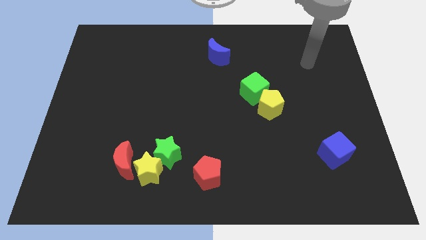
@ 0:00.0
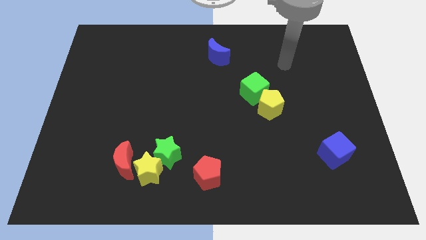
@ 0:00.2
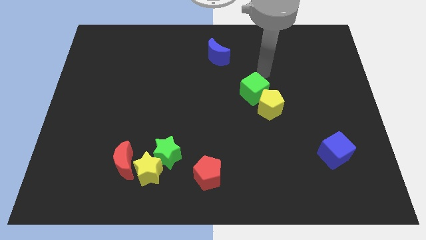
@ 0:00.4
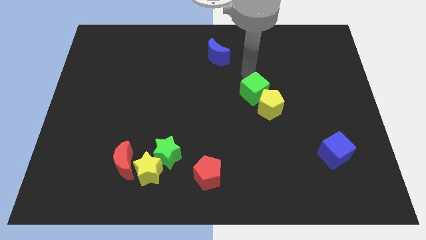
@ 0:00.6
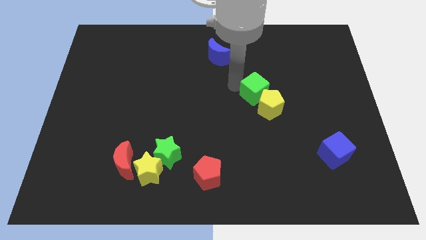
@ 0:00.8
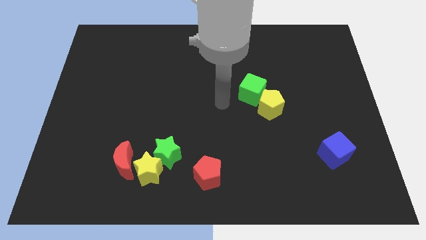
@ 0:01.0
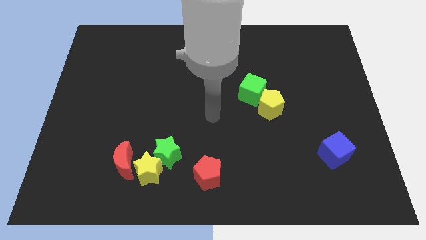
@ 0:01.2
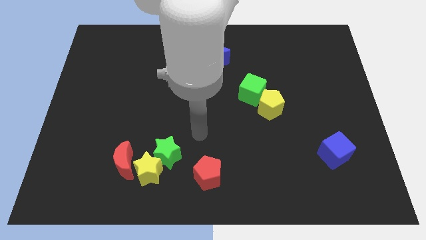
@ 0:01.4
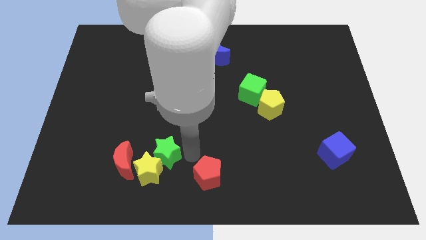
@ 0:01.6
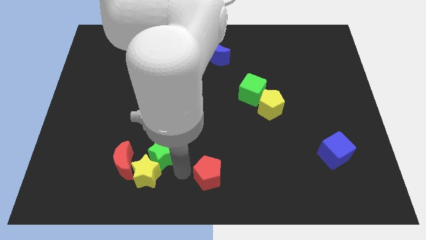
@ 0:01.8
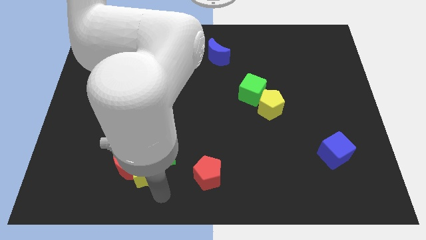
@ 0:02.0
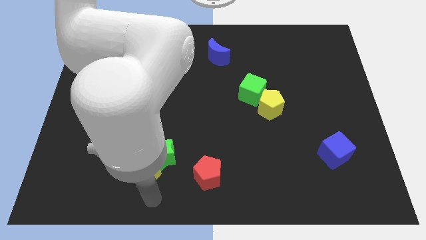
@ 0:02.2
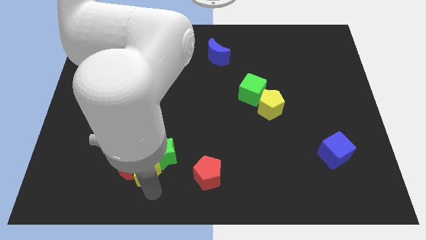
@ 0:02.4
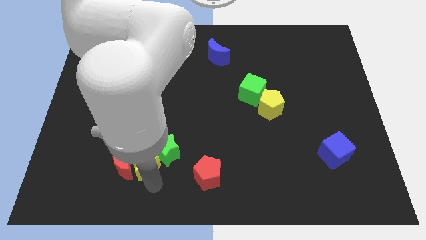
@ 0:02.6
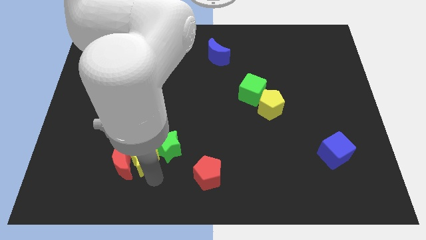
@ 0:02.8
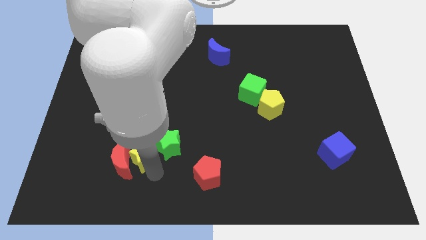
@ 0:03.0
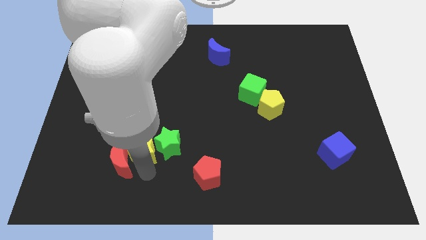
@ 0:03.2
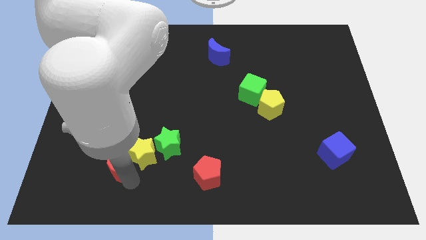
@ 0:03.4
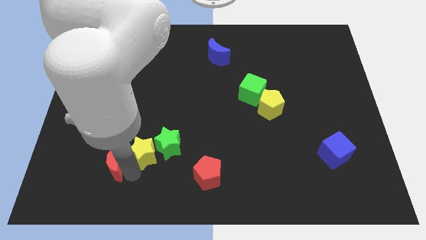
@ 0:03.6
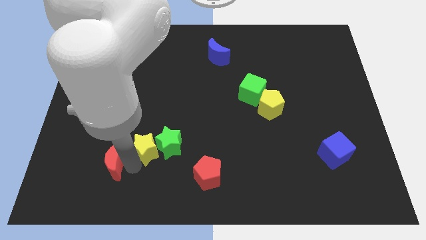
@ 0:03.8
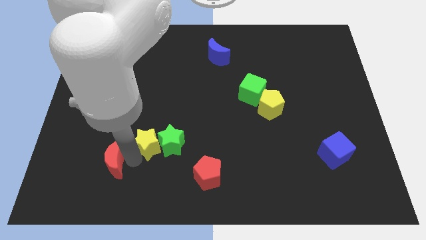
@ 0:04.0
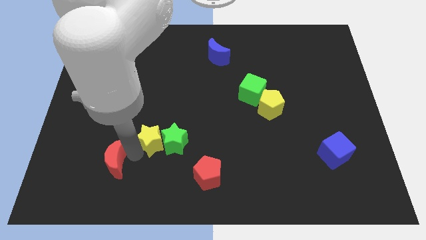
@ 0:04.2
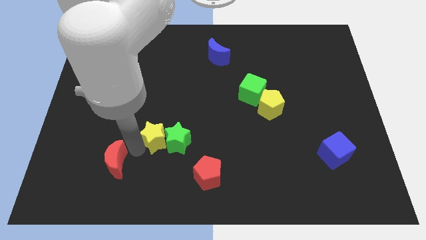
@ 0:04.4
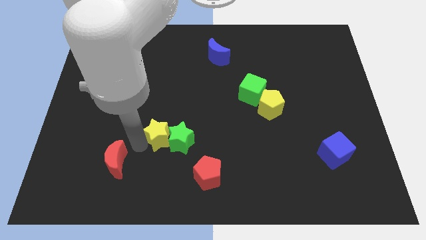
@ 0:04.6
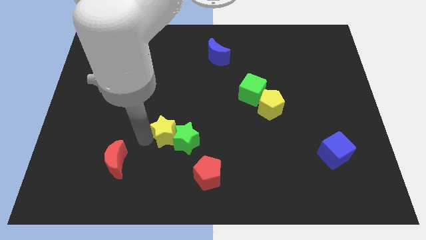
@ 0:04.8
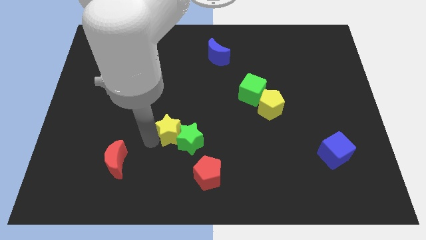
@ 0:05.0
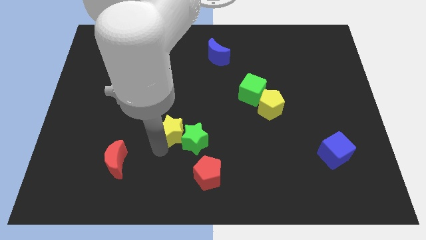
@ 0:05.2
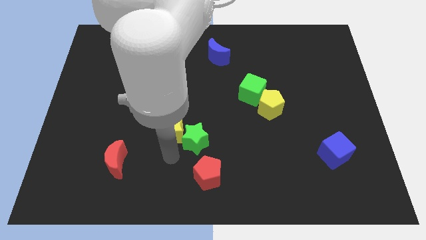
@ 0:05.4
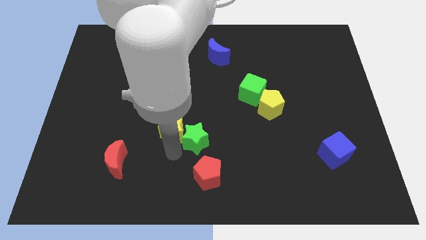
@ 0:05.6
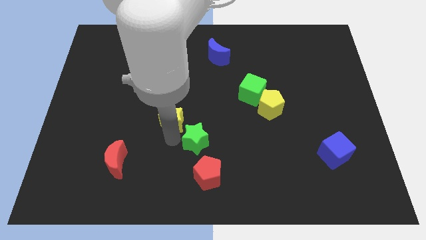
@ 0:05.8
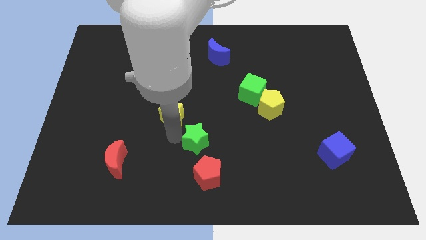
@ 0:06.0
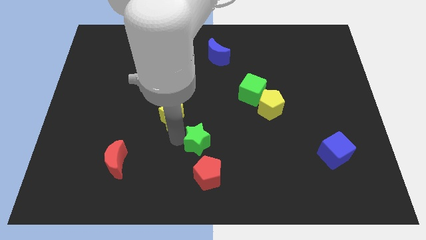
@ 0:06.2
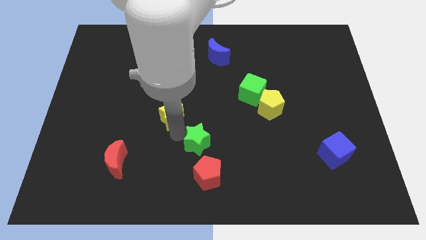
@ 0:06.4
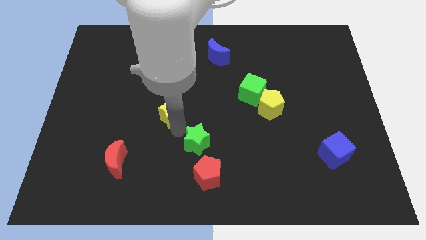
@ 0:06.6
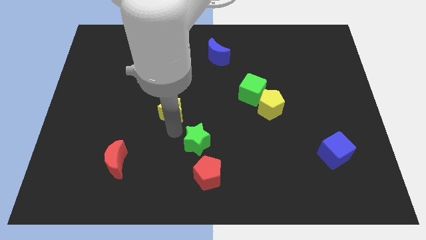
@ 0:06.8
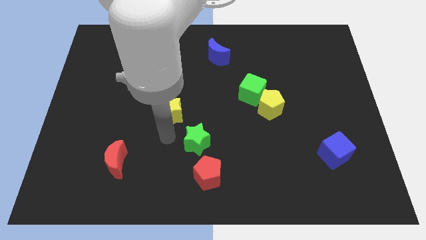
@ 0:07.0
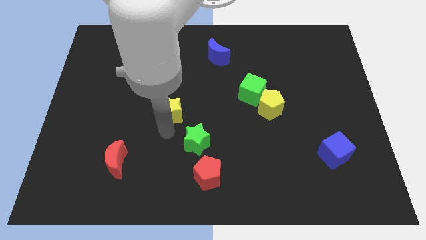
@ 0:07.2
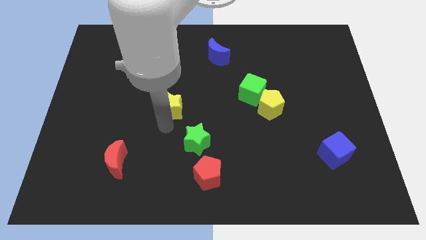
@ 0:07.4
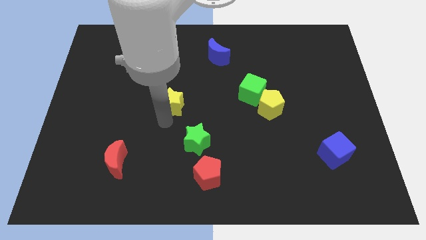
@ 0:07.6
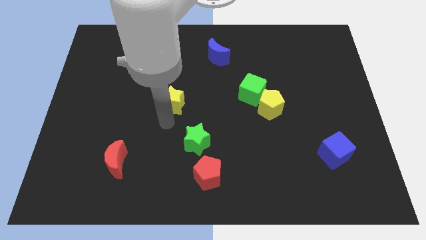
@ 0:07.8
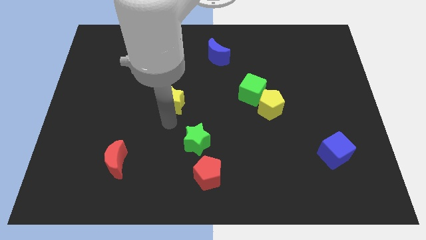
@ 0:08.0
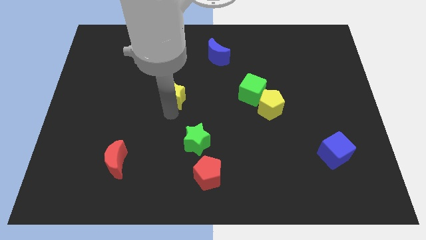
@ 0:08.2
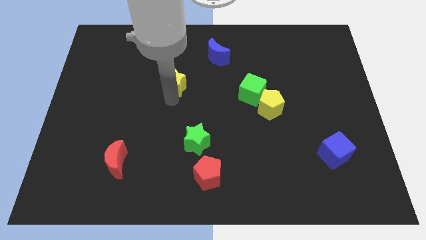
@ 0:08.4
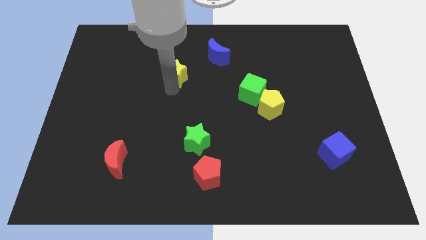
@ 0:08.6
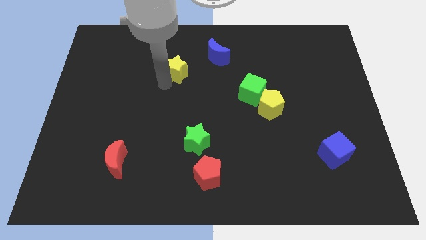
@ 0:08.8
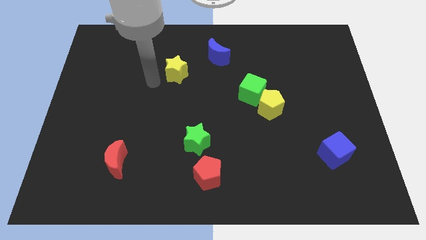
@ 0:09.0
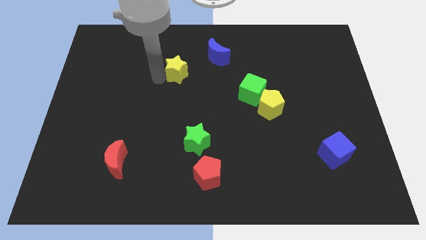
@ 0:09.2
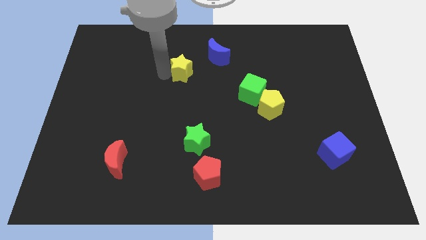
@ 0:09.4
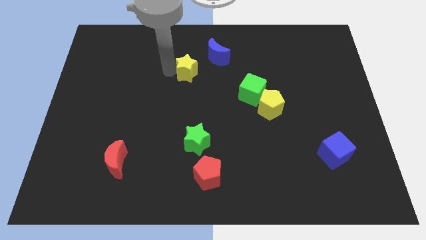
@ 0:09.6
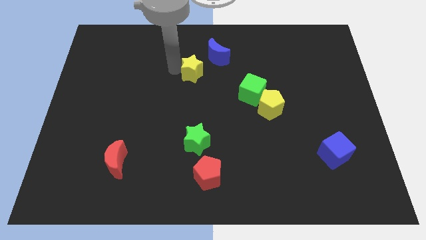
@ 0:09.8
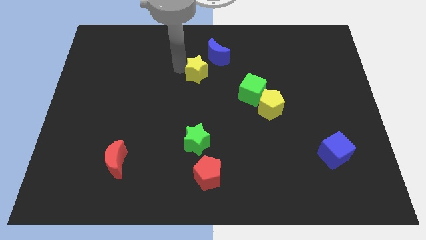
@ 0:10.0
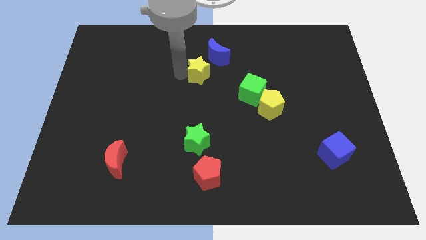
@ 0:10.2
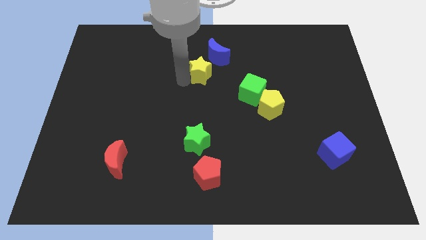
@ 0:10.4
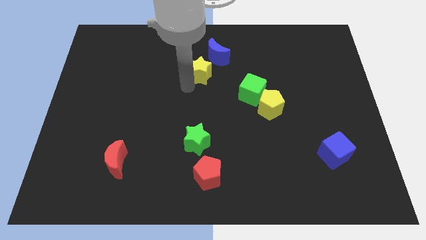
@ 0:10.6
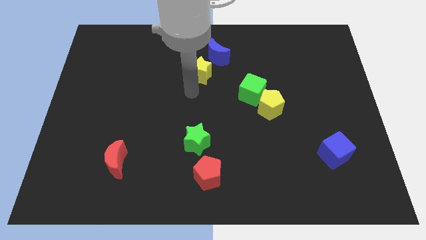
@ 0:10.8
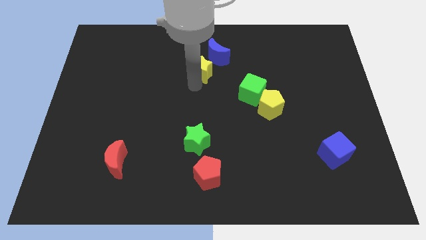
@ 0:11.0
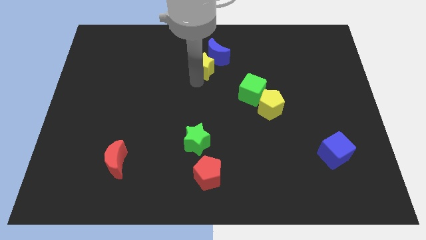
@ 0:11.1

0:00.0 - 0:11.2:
move the yellow star close to the blue moon
